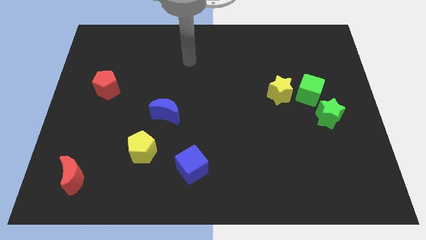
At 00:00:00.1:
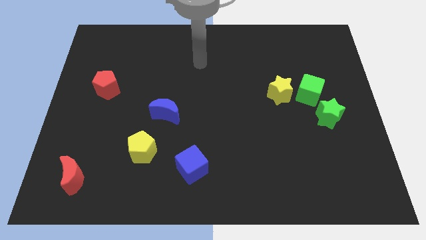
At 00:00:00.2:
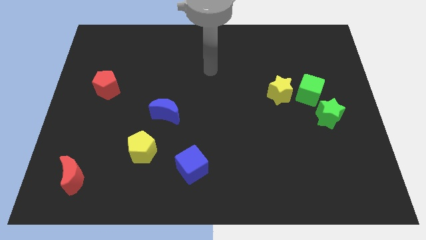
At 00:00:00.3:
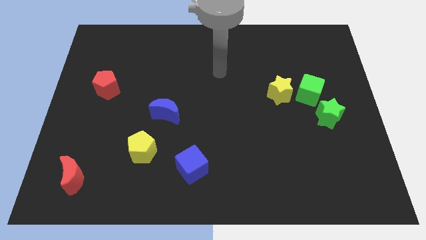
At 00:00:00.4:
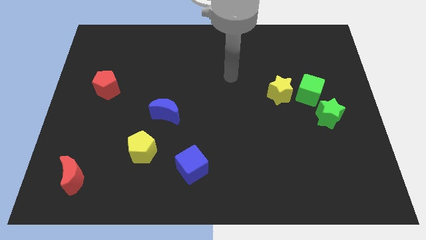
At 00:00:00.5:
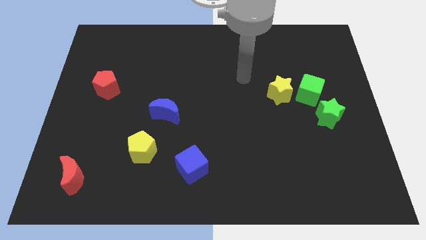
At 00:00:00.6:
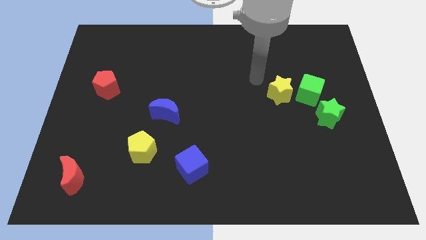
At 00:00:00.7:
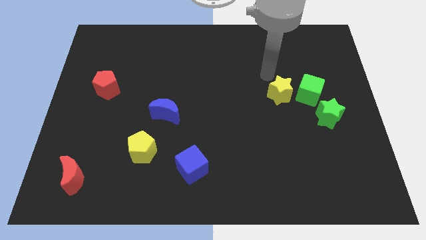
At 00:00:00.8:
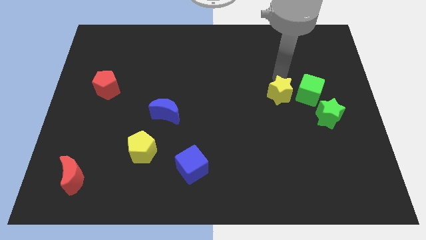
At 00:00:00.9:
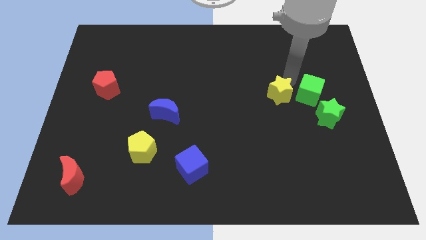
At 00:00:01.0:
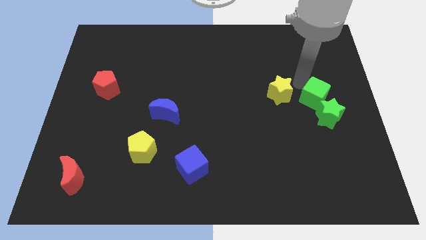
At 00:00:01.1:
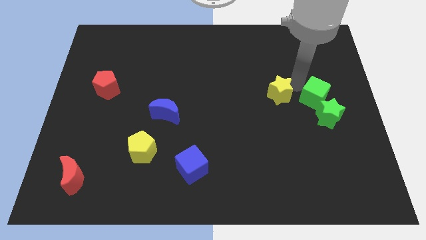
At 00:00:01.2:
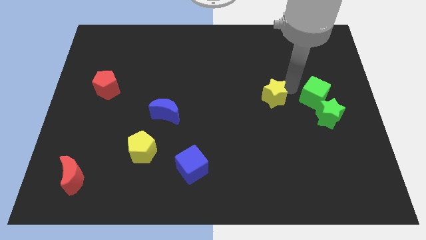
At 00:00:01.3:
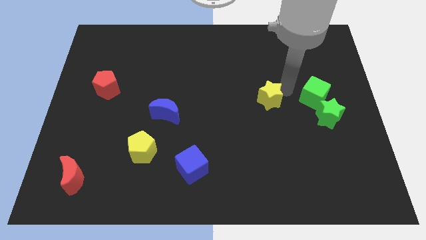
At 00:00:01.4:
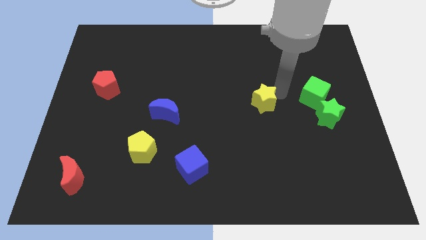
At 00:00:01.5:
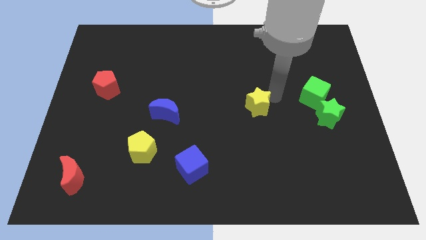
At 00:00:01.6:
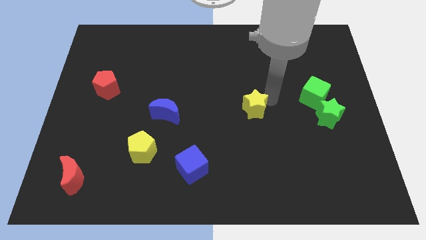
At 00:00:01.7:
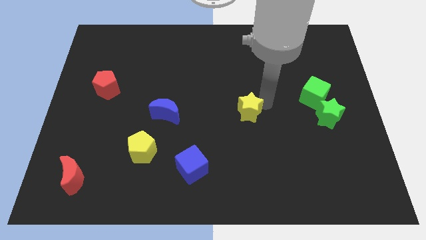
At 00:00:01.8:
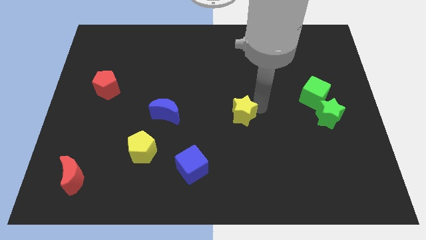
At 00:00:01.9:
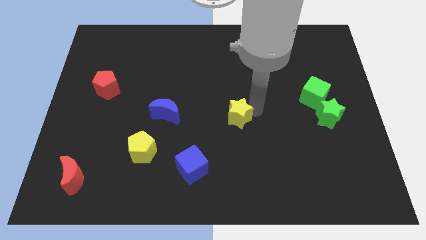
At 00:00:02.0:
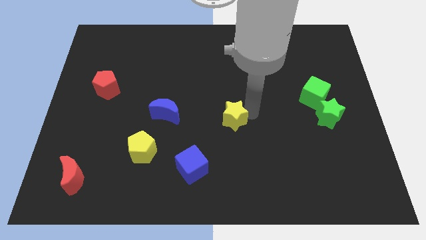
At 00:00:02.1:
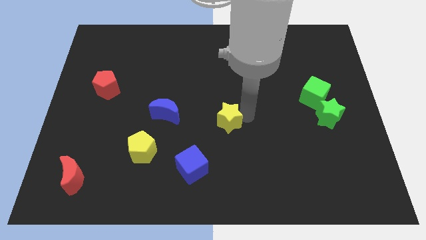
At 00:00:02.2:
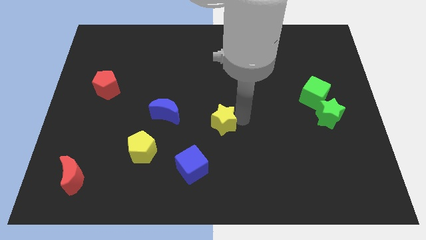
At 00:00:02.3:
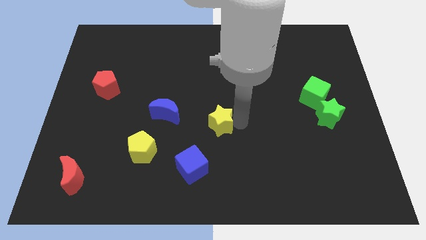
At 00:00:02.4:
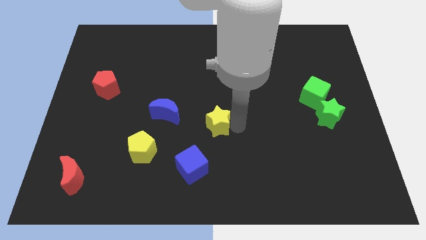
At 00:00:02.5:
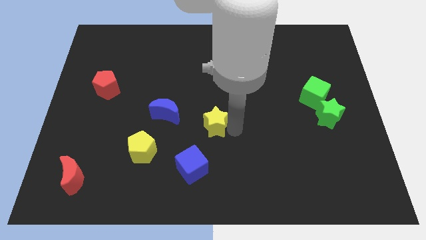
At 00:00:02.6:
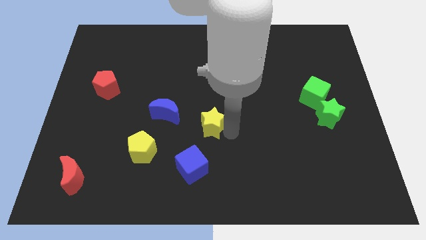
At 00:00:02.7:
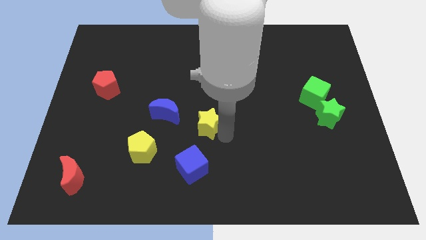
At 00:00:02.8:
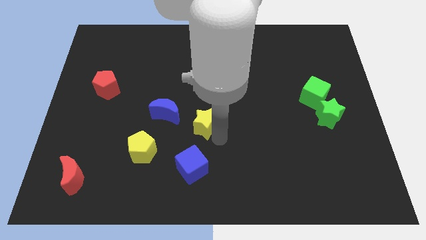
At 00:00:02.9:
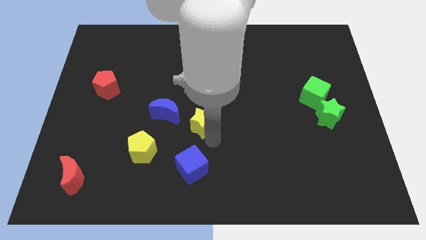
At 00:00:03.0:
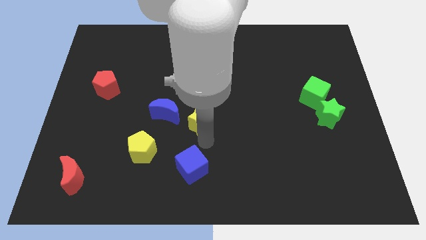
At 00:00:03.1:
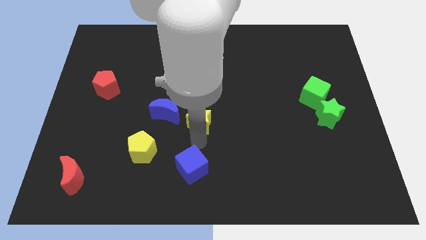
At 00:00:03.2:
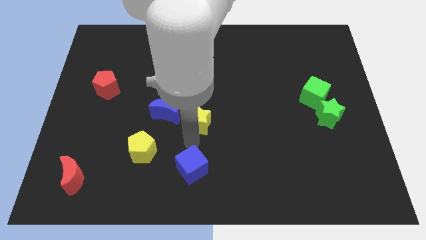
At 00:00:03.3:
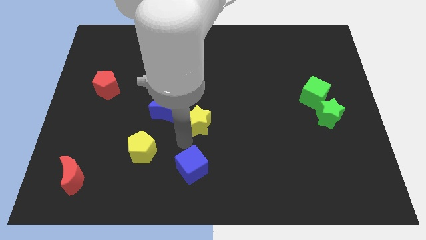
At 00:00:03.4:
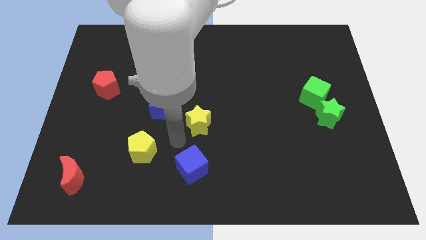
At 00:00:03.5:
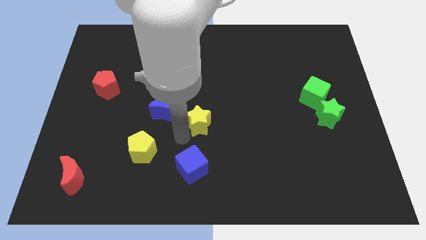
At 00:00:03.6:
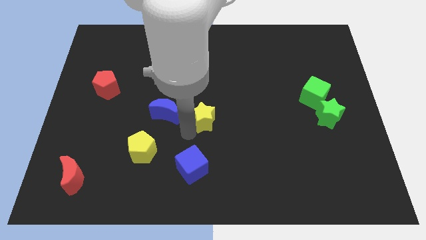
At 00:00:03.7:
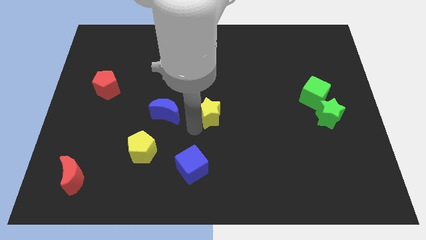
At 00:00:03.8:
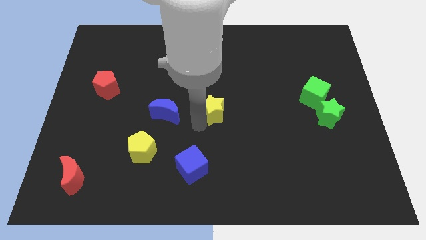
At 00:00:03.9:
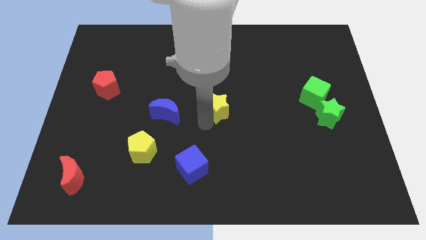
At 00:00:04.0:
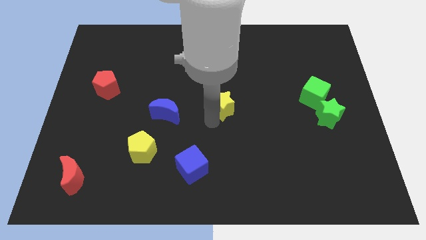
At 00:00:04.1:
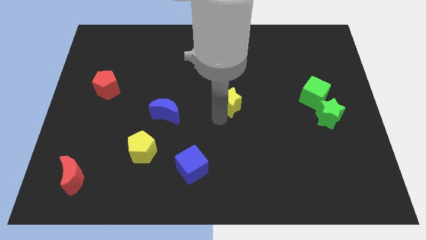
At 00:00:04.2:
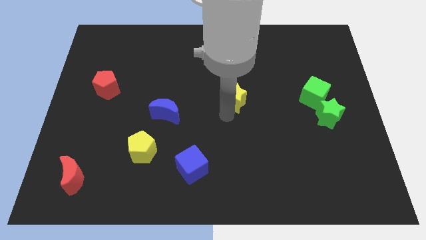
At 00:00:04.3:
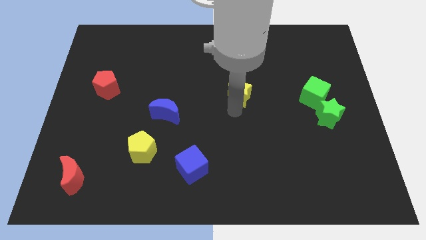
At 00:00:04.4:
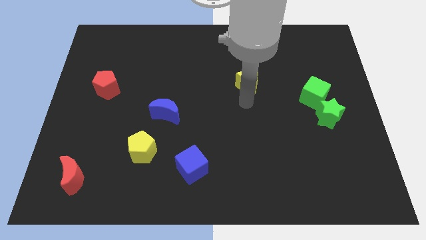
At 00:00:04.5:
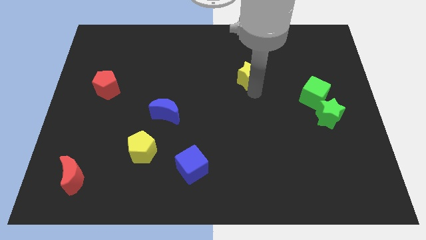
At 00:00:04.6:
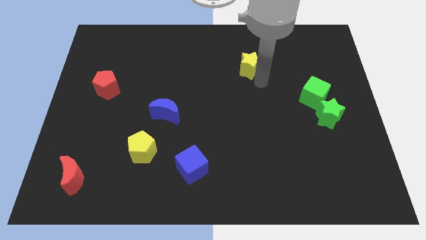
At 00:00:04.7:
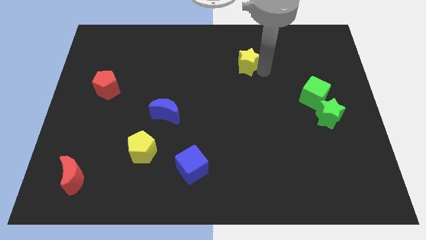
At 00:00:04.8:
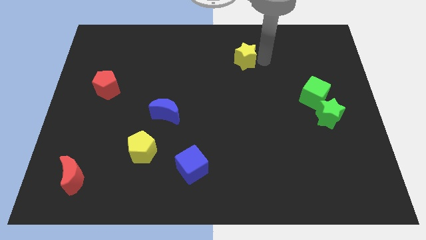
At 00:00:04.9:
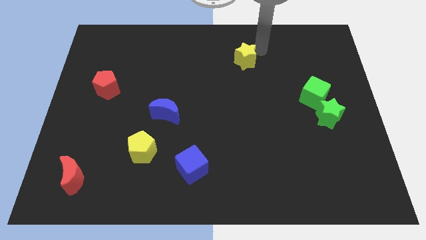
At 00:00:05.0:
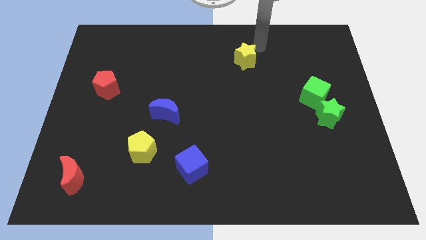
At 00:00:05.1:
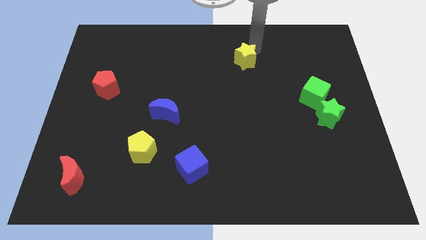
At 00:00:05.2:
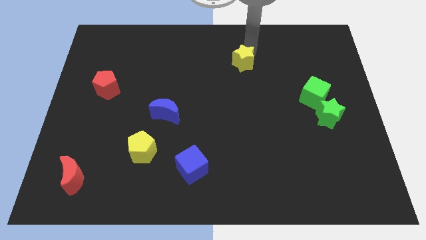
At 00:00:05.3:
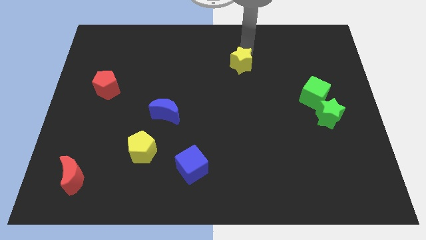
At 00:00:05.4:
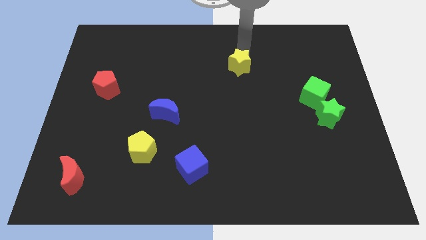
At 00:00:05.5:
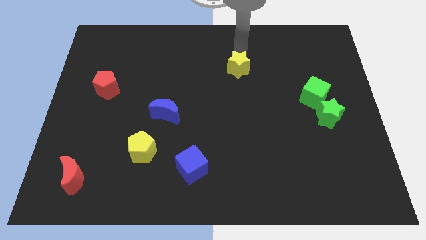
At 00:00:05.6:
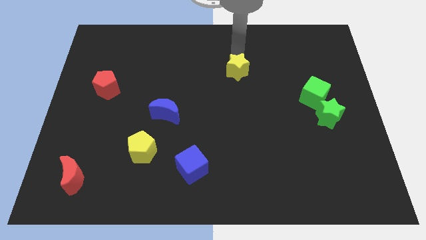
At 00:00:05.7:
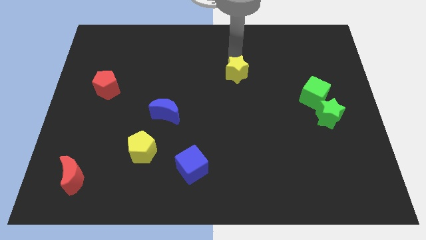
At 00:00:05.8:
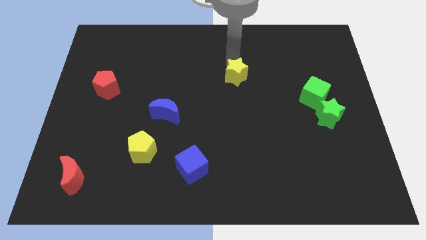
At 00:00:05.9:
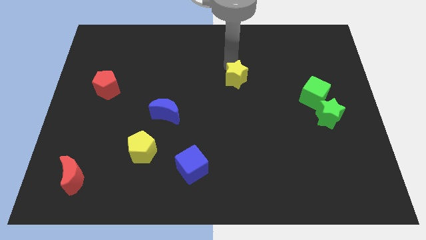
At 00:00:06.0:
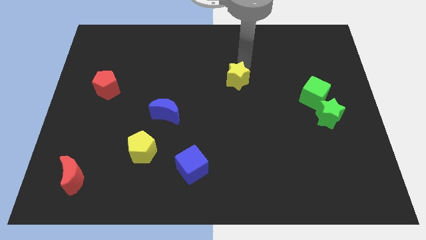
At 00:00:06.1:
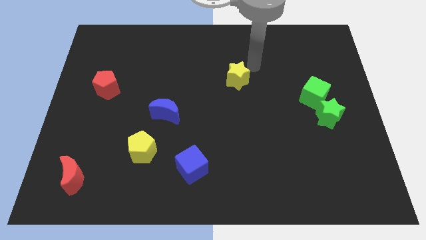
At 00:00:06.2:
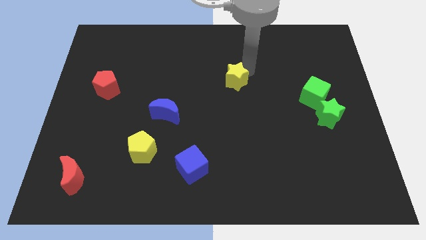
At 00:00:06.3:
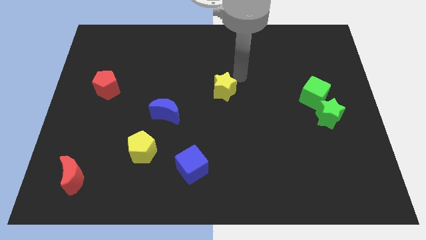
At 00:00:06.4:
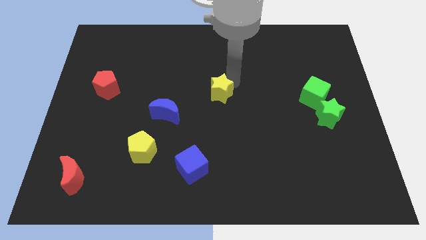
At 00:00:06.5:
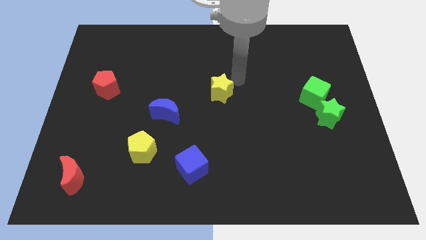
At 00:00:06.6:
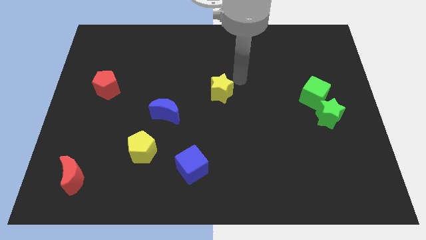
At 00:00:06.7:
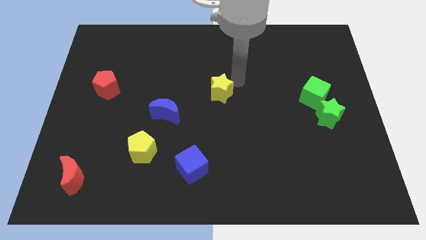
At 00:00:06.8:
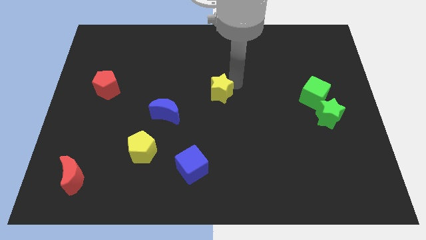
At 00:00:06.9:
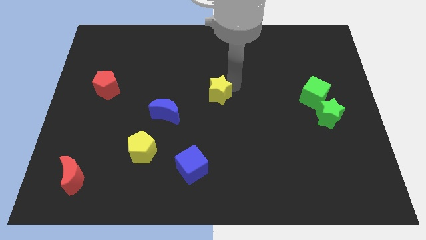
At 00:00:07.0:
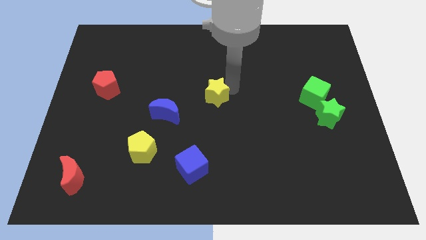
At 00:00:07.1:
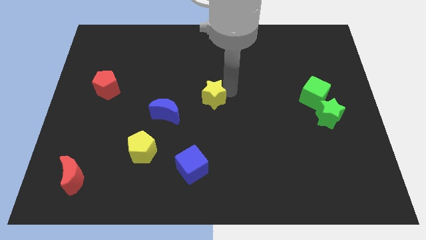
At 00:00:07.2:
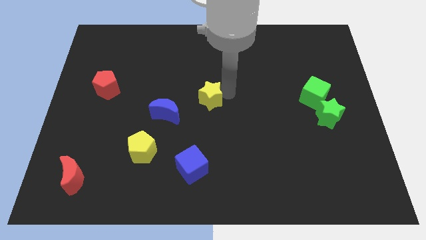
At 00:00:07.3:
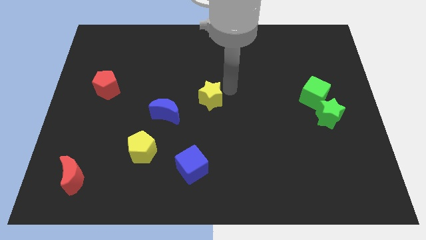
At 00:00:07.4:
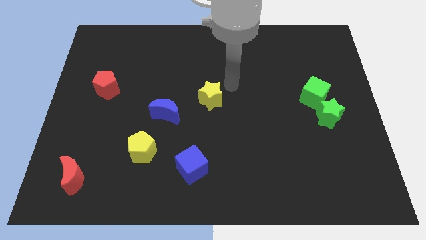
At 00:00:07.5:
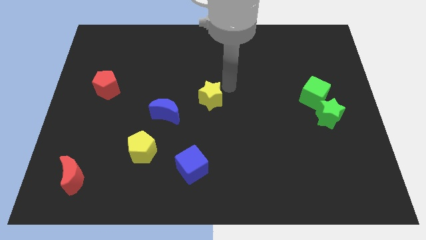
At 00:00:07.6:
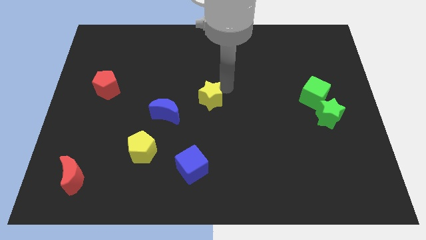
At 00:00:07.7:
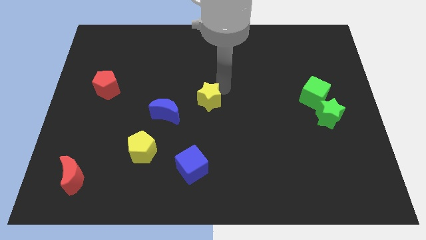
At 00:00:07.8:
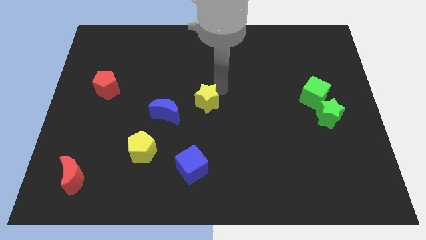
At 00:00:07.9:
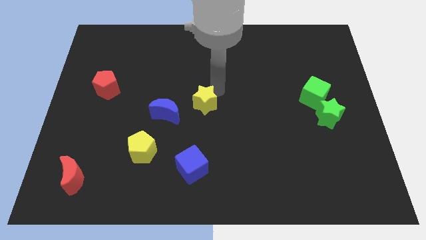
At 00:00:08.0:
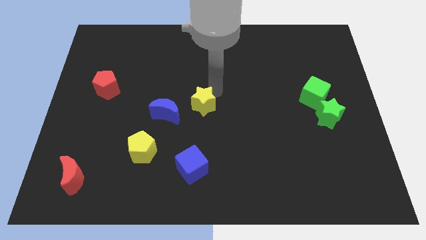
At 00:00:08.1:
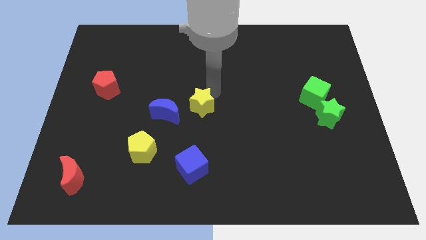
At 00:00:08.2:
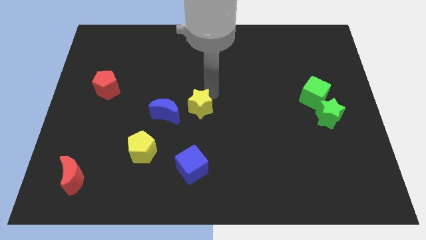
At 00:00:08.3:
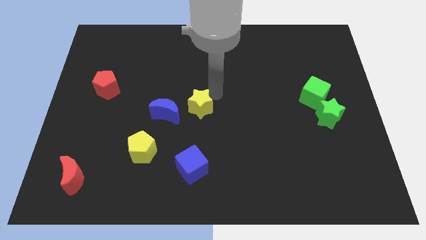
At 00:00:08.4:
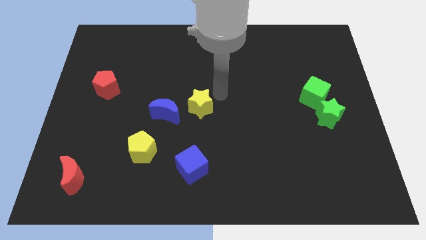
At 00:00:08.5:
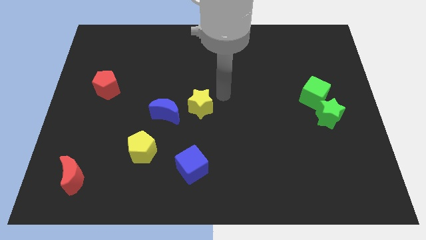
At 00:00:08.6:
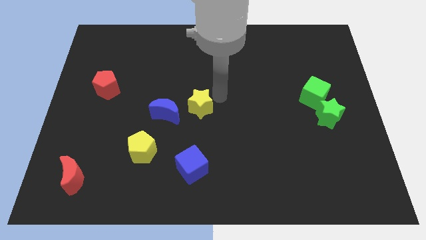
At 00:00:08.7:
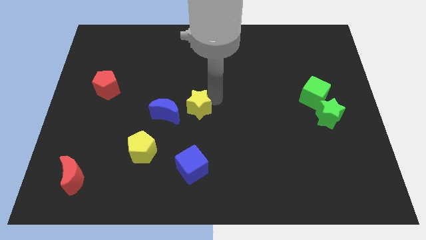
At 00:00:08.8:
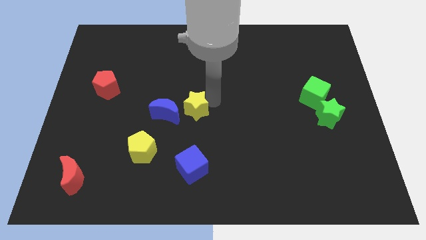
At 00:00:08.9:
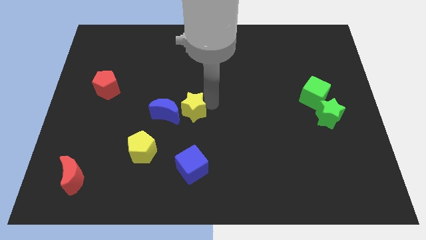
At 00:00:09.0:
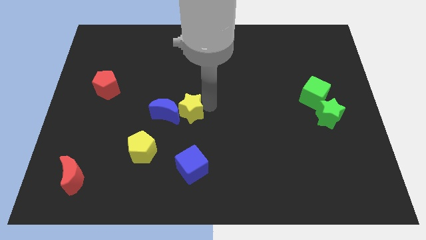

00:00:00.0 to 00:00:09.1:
slide the yellow star towards the blue moon
